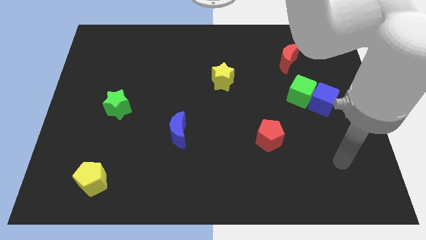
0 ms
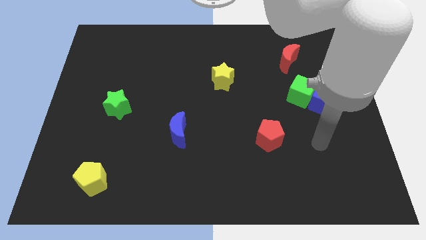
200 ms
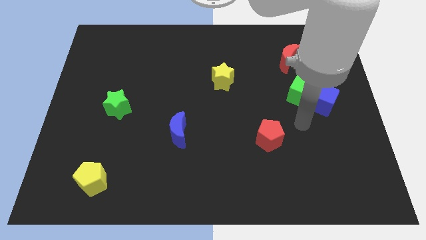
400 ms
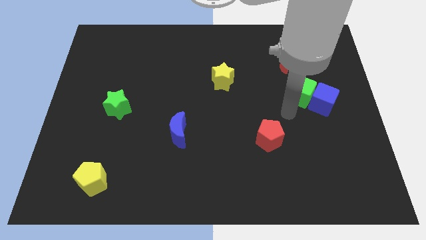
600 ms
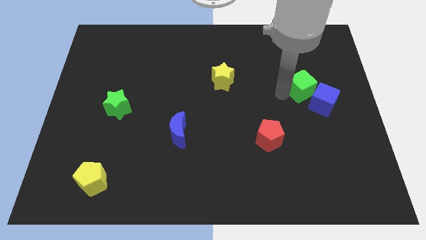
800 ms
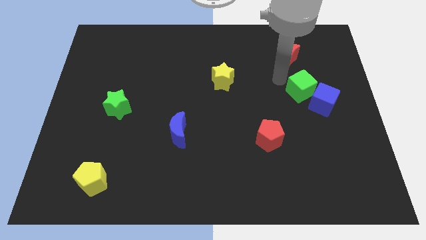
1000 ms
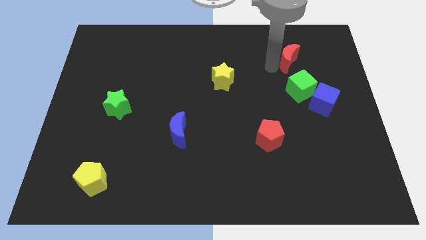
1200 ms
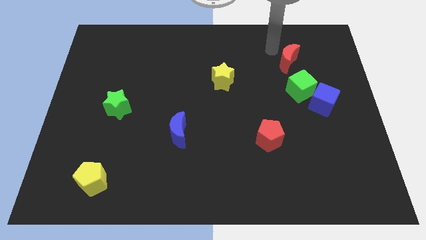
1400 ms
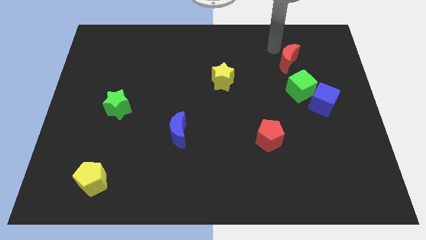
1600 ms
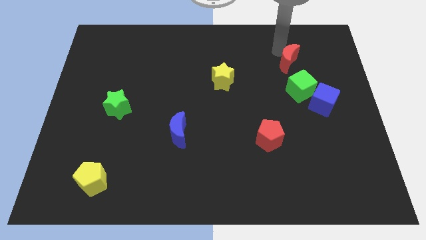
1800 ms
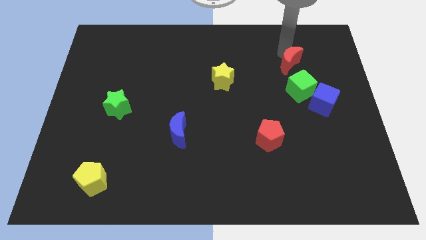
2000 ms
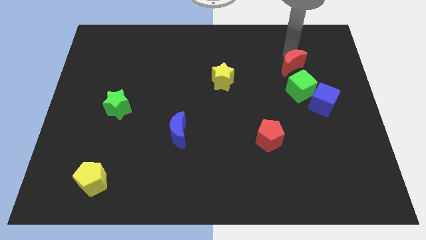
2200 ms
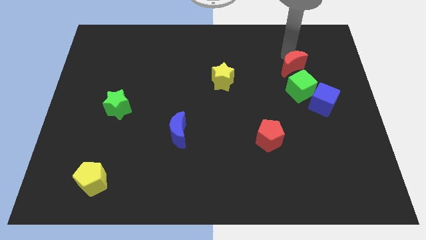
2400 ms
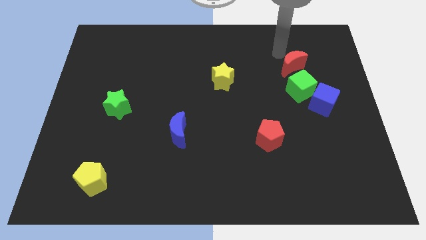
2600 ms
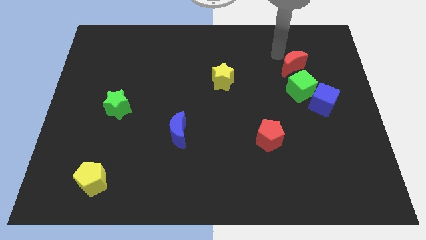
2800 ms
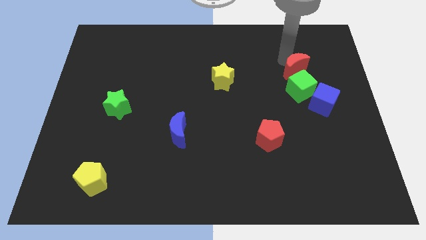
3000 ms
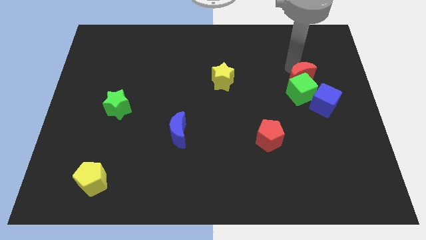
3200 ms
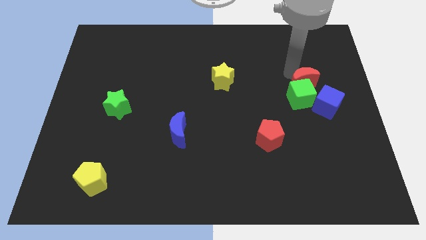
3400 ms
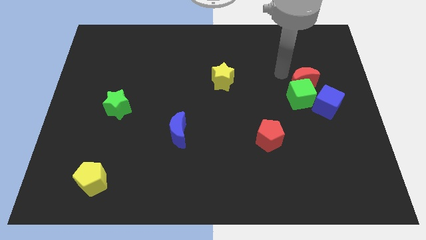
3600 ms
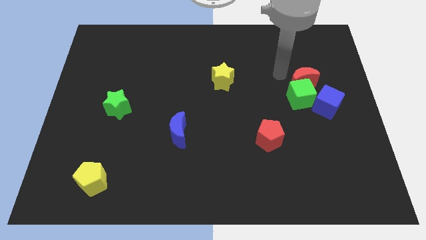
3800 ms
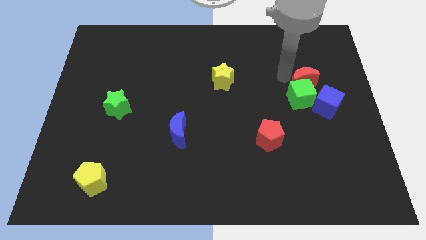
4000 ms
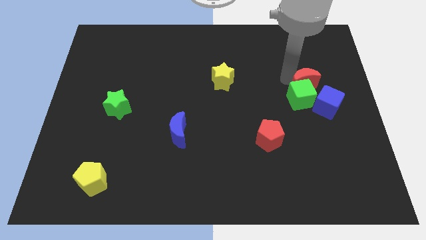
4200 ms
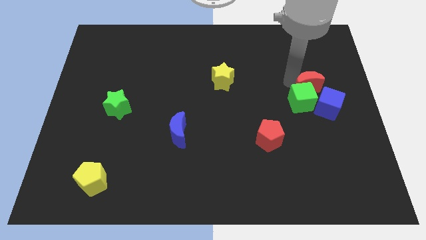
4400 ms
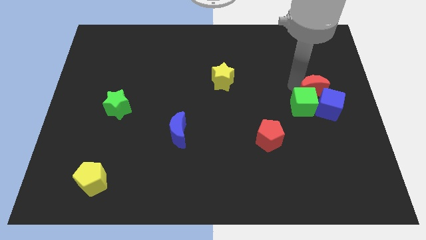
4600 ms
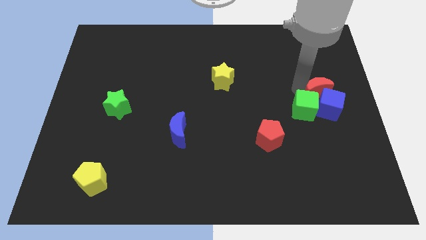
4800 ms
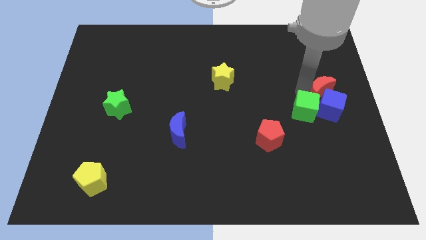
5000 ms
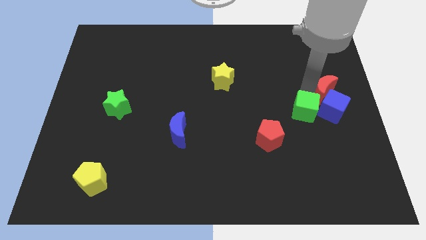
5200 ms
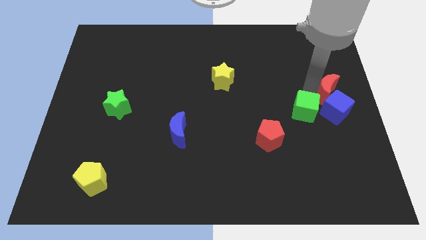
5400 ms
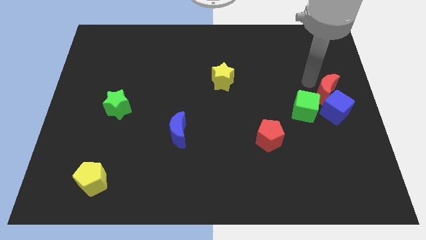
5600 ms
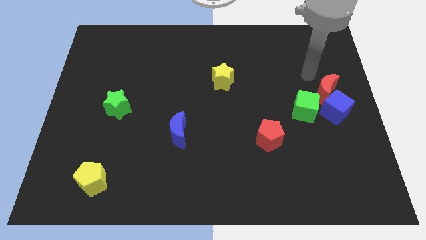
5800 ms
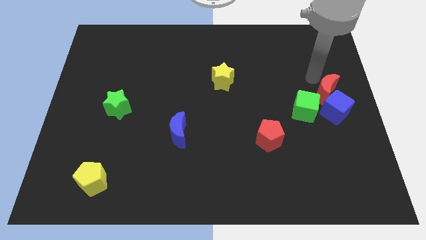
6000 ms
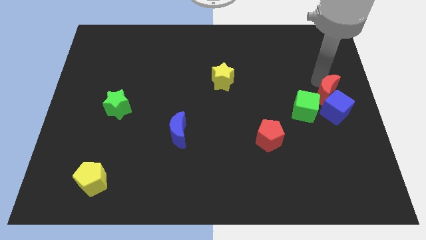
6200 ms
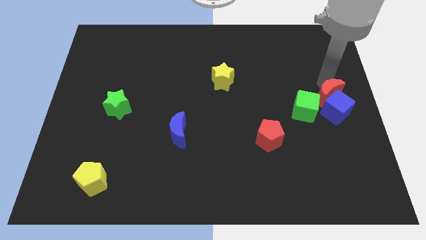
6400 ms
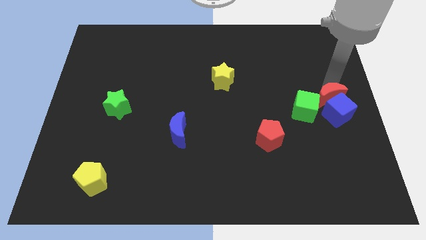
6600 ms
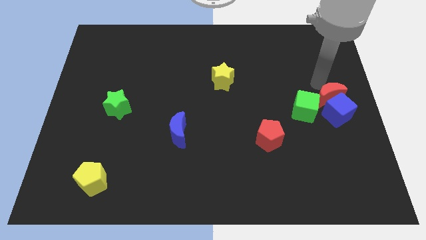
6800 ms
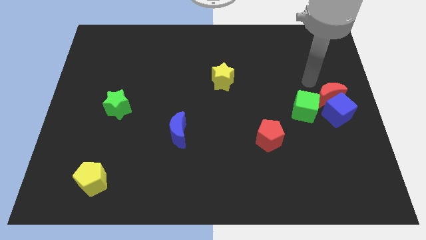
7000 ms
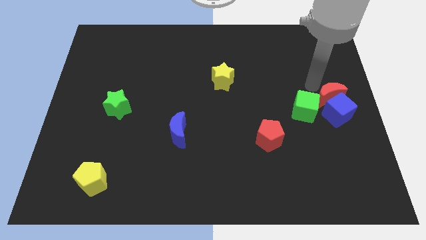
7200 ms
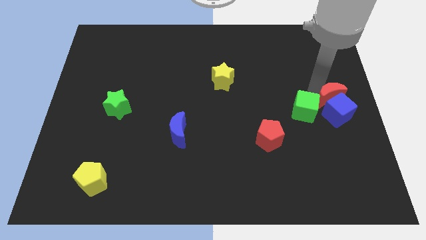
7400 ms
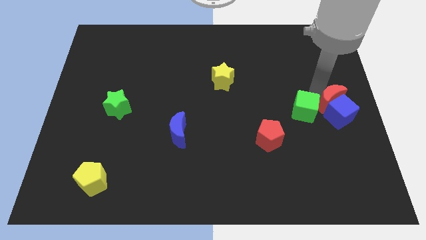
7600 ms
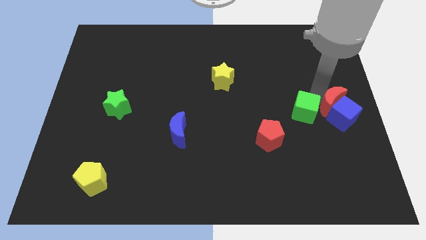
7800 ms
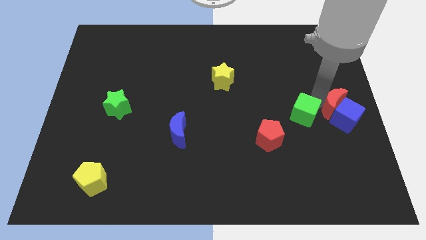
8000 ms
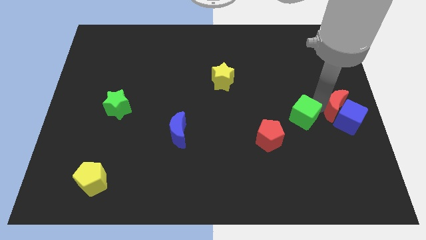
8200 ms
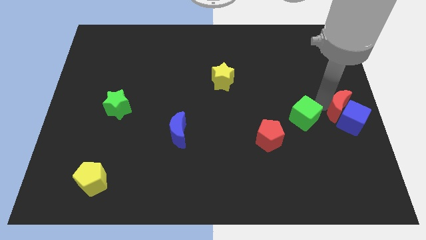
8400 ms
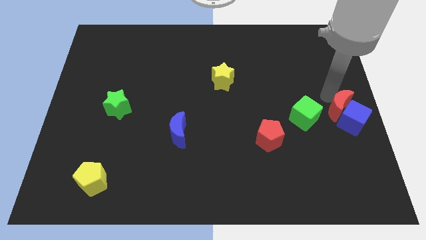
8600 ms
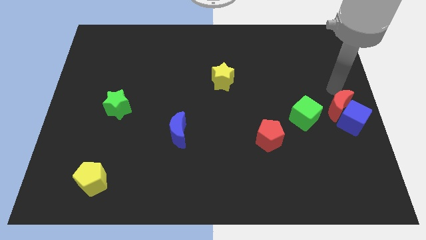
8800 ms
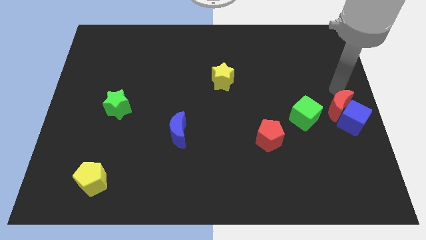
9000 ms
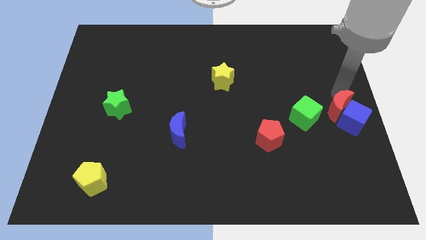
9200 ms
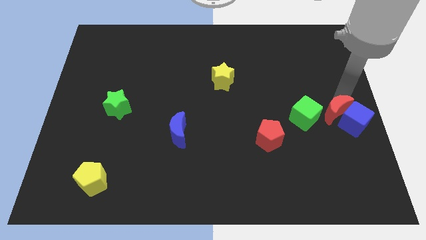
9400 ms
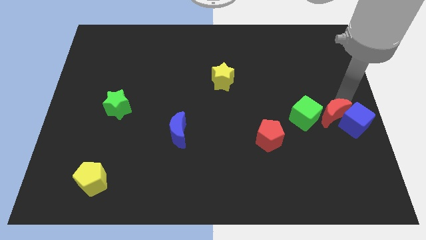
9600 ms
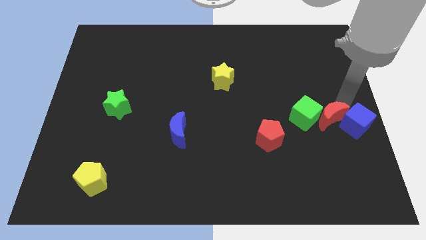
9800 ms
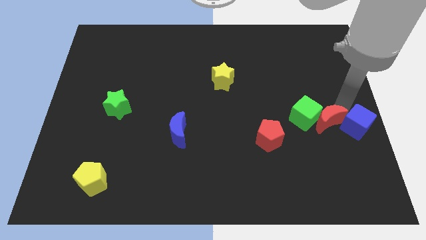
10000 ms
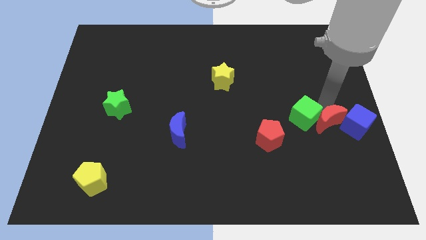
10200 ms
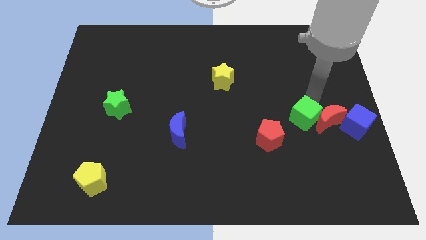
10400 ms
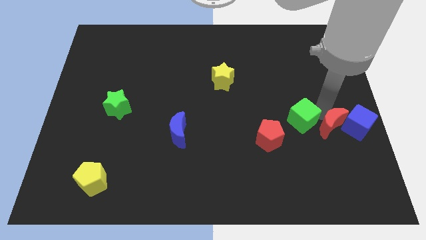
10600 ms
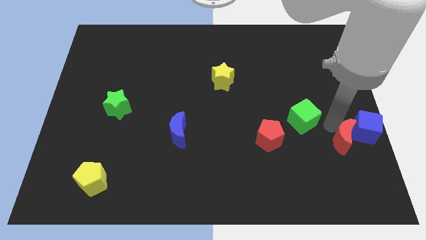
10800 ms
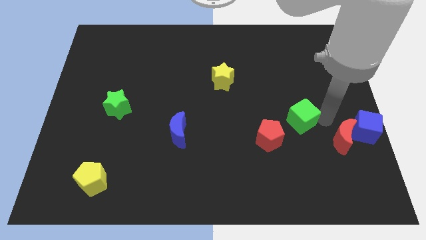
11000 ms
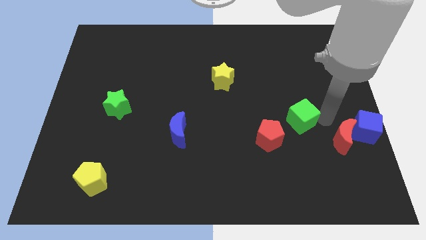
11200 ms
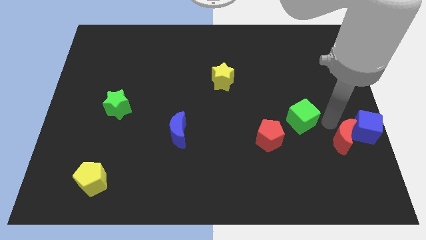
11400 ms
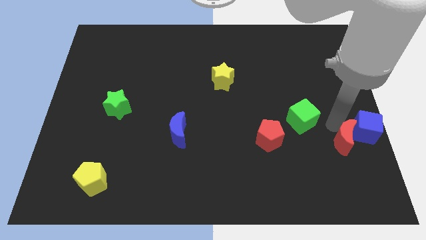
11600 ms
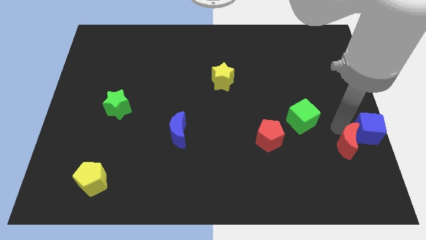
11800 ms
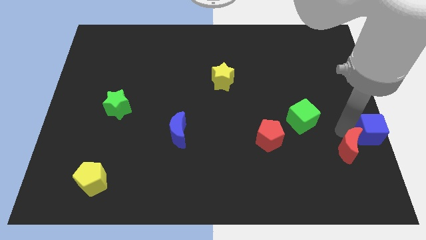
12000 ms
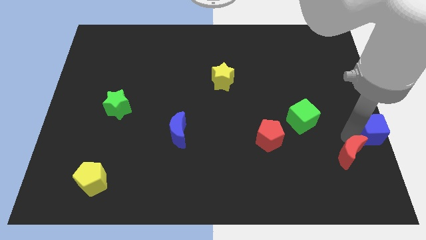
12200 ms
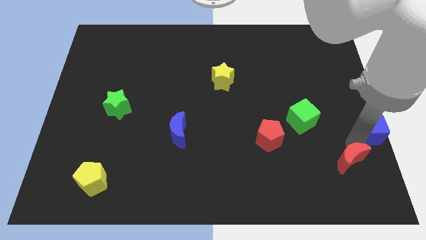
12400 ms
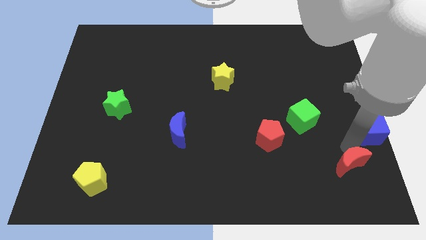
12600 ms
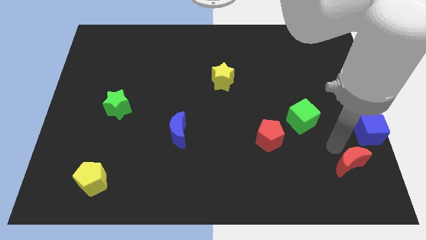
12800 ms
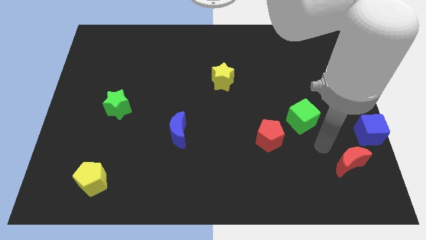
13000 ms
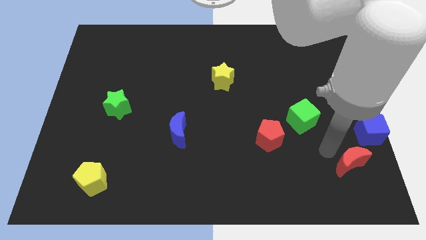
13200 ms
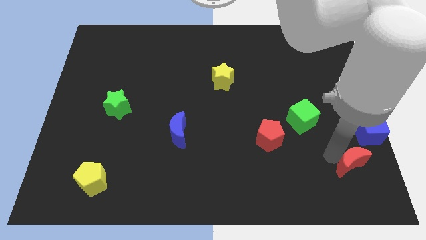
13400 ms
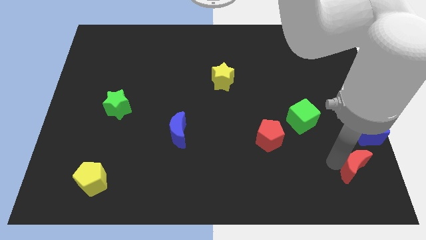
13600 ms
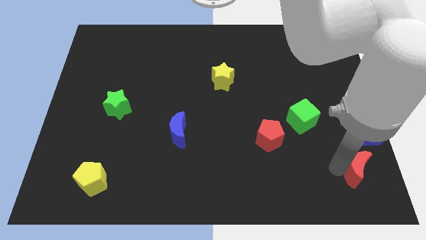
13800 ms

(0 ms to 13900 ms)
move the red moon to the bottom right corner

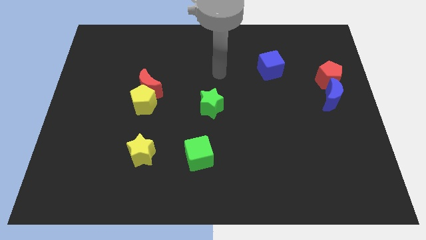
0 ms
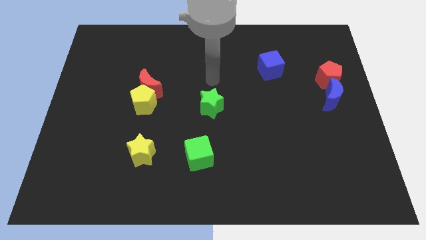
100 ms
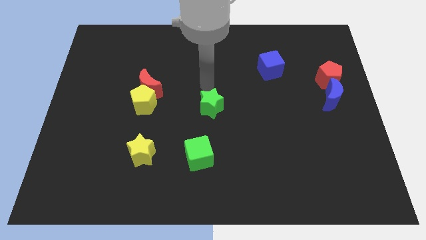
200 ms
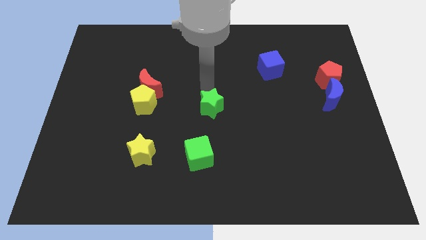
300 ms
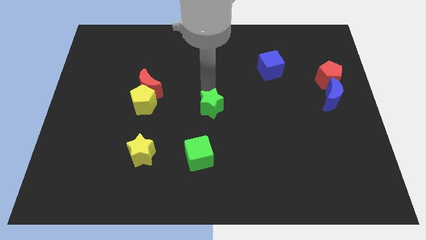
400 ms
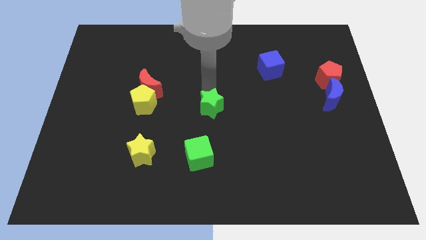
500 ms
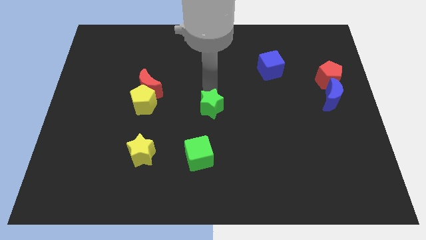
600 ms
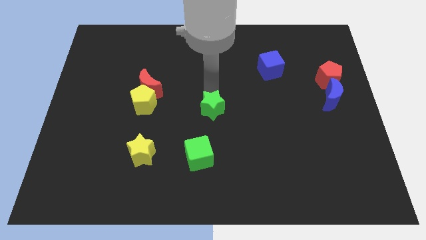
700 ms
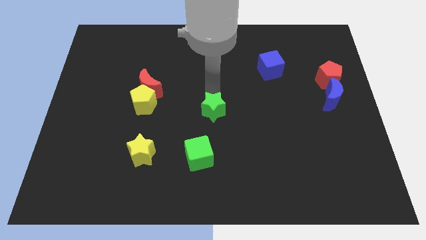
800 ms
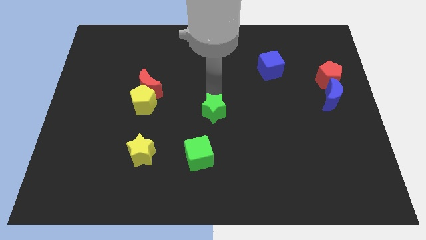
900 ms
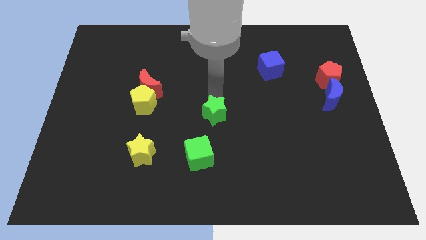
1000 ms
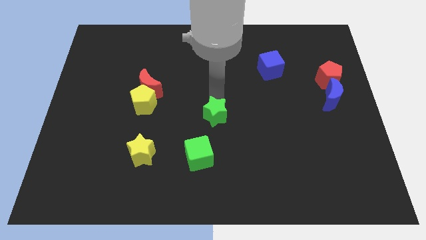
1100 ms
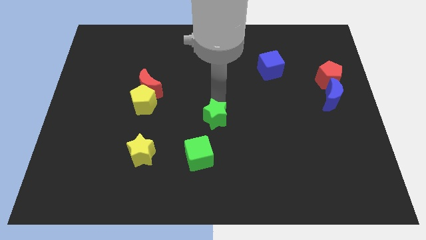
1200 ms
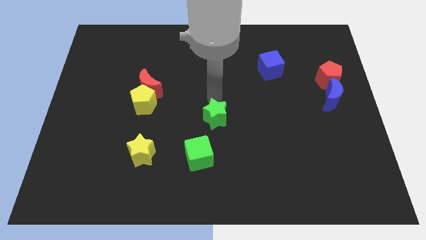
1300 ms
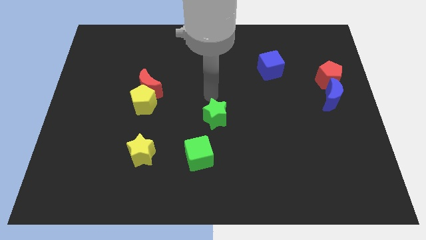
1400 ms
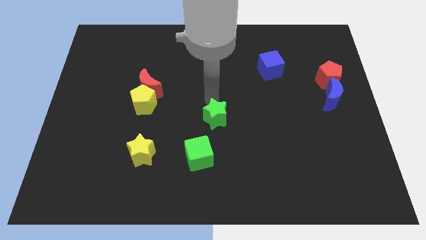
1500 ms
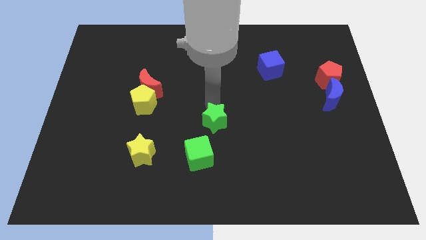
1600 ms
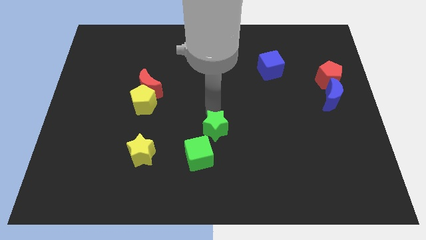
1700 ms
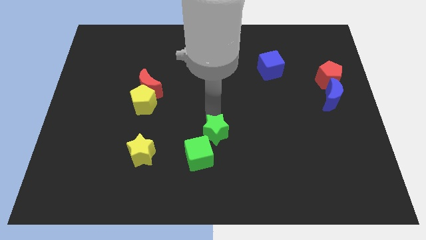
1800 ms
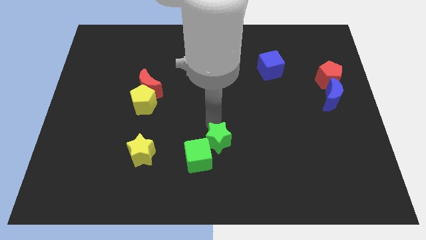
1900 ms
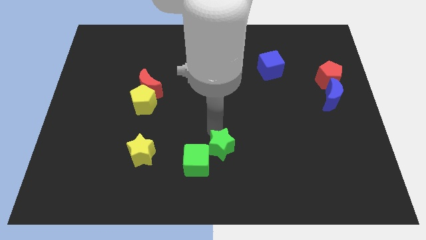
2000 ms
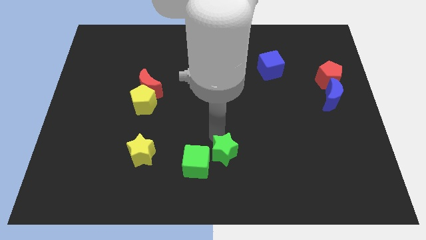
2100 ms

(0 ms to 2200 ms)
put the green star to the bottom
